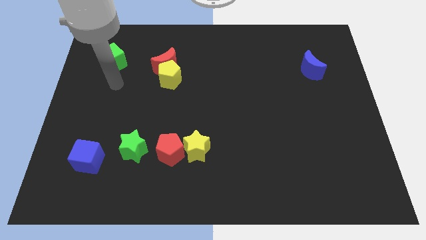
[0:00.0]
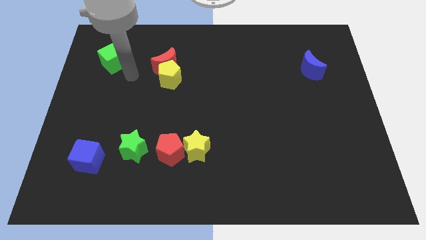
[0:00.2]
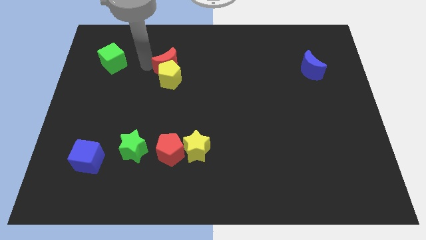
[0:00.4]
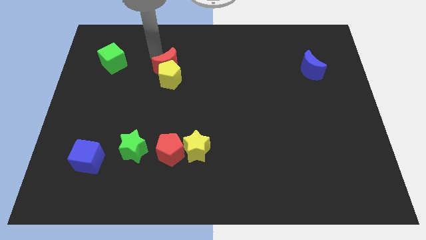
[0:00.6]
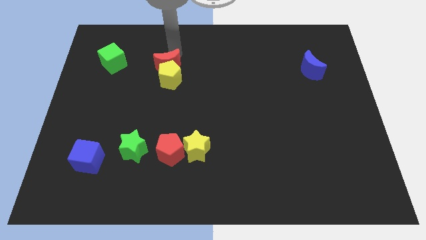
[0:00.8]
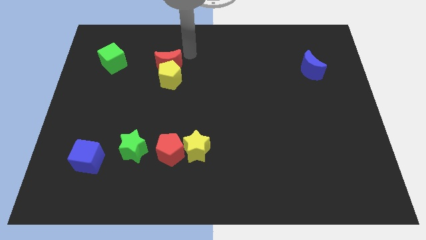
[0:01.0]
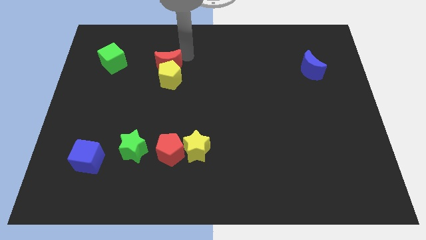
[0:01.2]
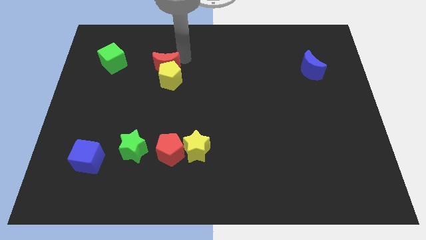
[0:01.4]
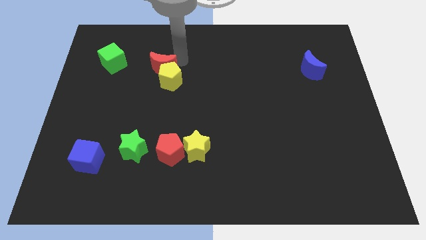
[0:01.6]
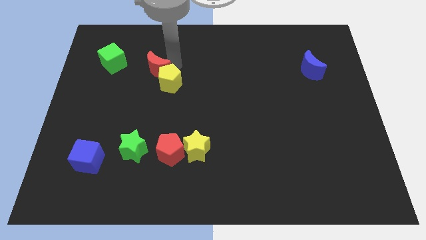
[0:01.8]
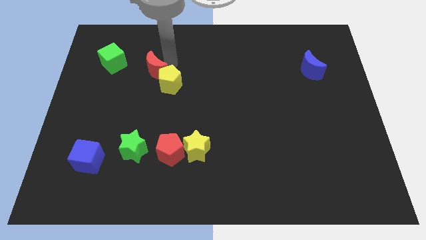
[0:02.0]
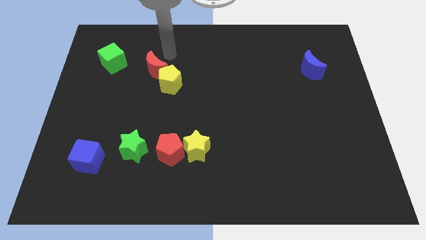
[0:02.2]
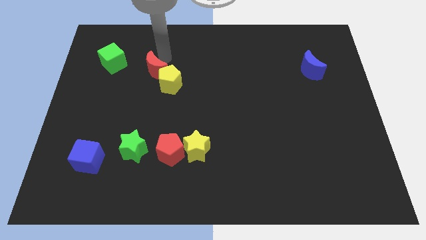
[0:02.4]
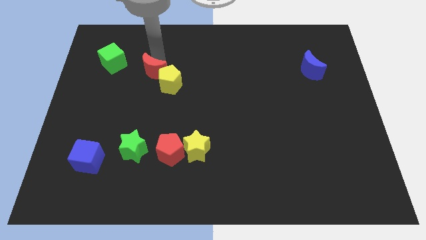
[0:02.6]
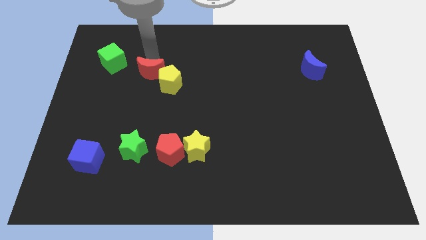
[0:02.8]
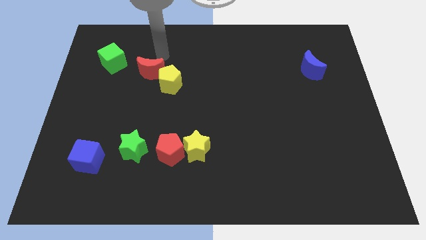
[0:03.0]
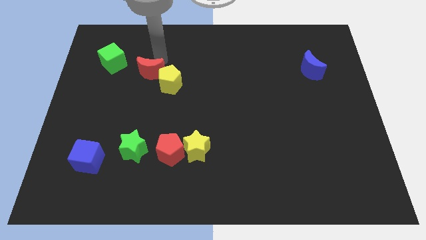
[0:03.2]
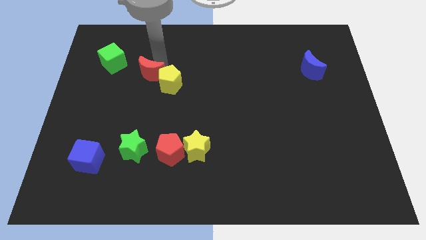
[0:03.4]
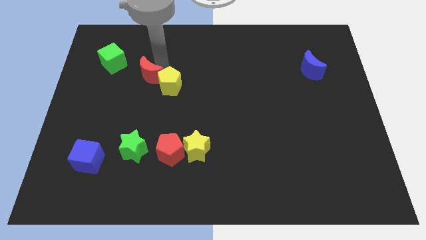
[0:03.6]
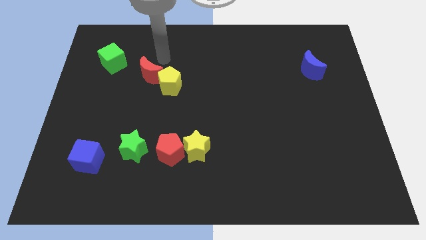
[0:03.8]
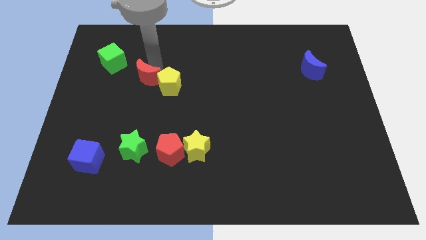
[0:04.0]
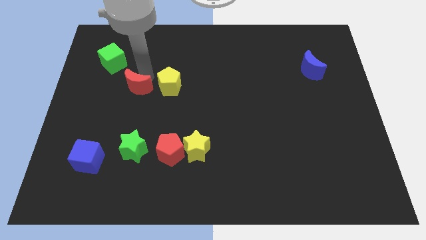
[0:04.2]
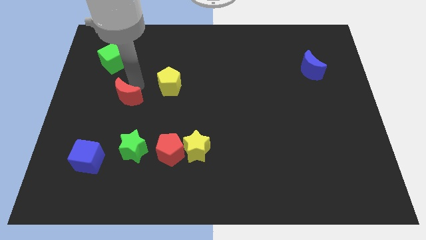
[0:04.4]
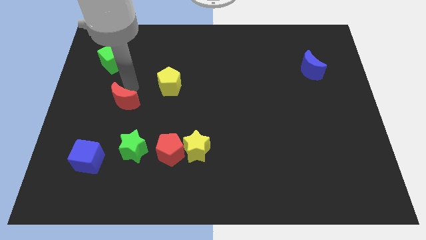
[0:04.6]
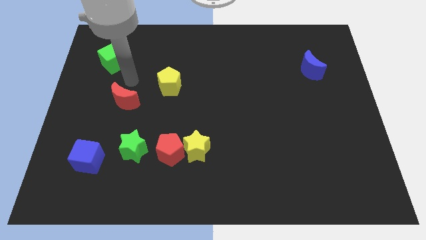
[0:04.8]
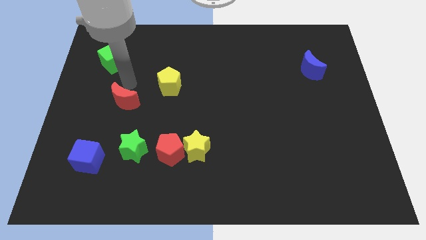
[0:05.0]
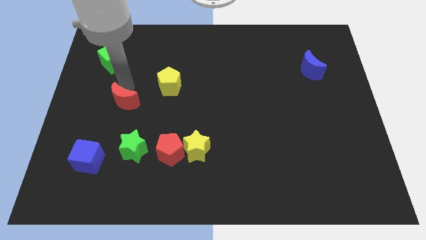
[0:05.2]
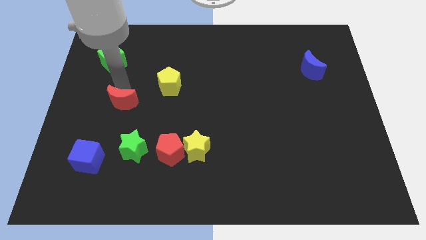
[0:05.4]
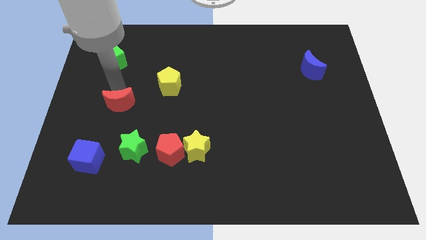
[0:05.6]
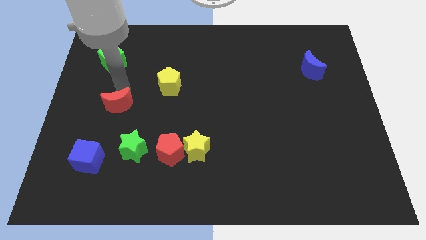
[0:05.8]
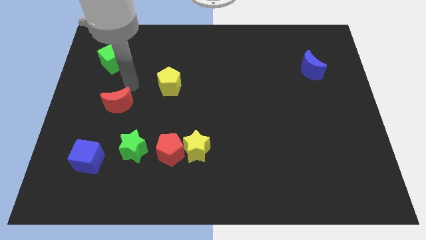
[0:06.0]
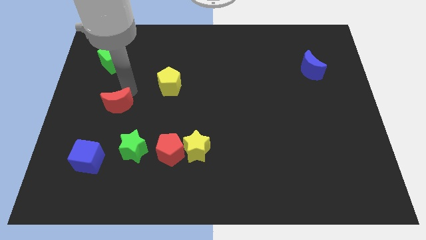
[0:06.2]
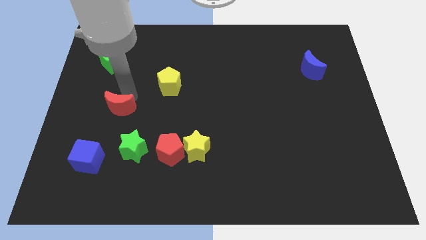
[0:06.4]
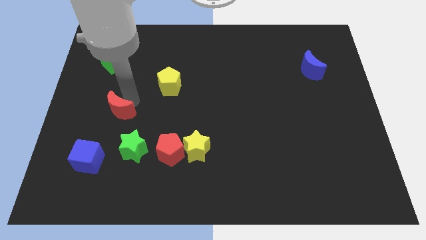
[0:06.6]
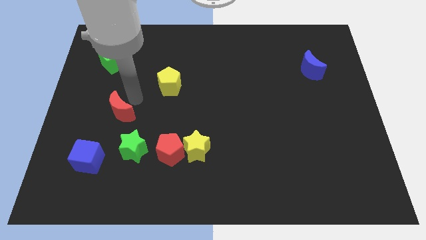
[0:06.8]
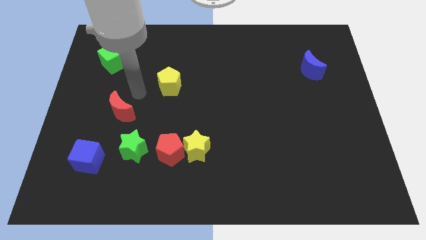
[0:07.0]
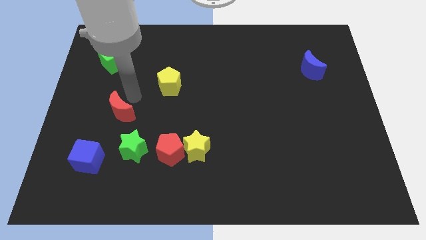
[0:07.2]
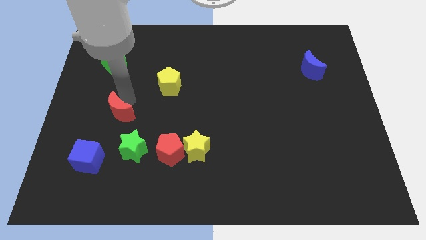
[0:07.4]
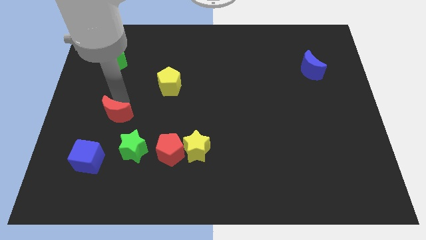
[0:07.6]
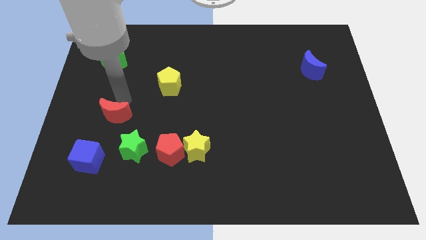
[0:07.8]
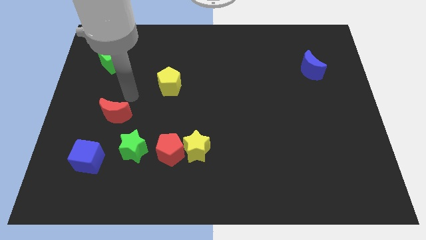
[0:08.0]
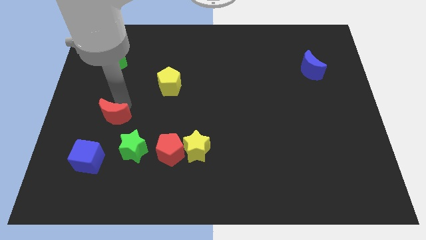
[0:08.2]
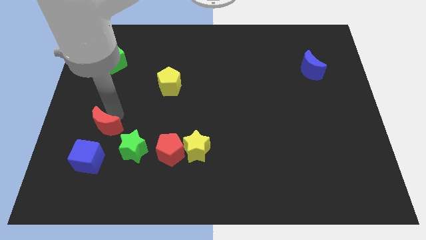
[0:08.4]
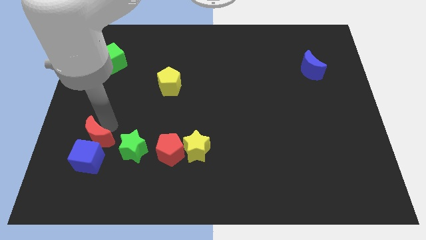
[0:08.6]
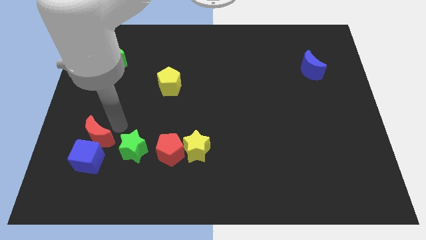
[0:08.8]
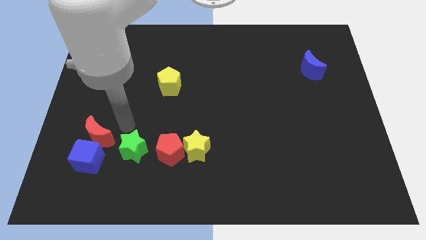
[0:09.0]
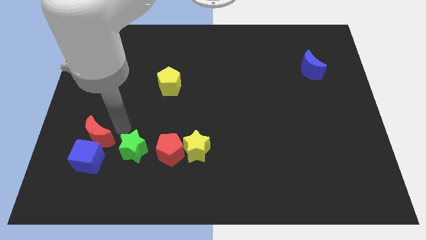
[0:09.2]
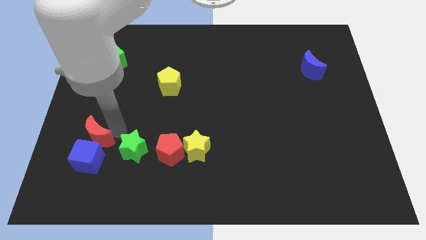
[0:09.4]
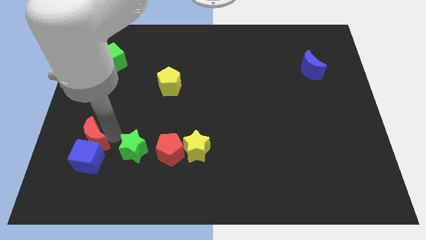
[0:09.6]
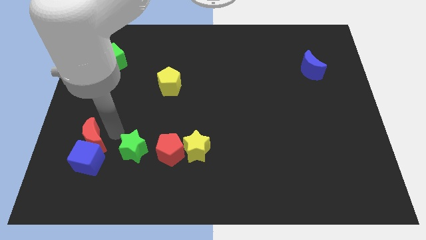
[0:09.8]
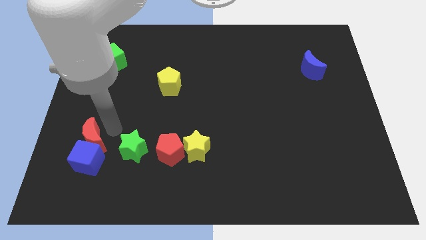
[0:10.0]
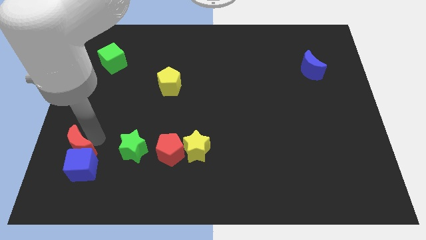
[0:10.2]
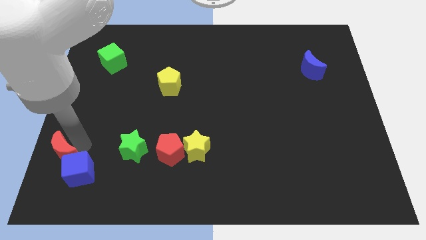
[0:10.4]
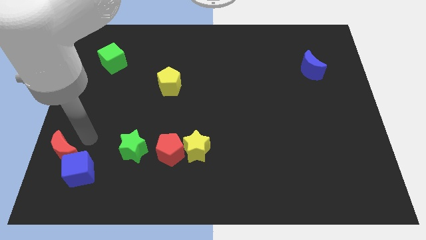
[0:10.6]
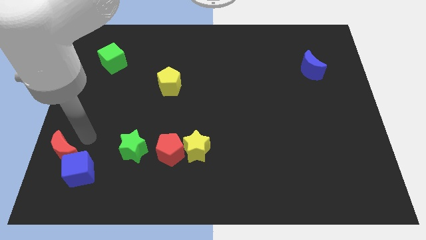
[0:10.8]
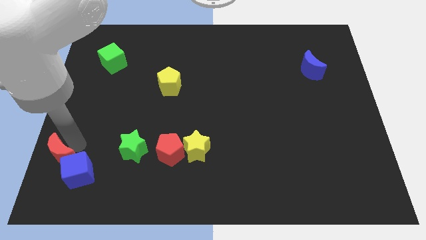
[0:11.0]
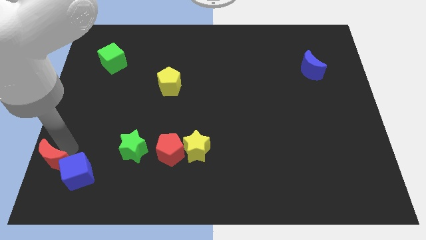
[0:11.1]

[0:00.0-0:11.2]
push the red moon to the lower left corner
